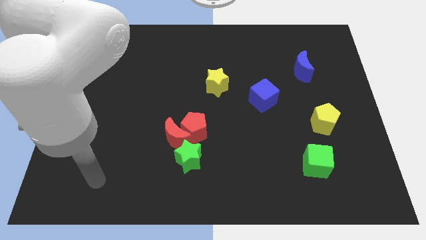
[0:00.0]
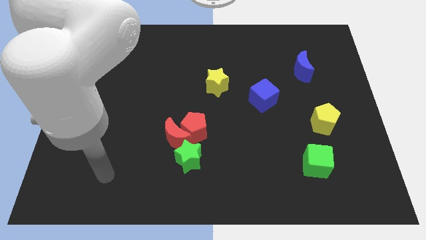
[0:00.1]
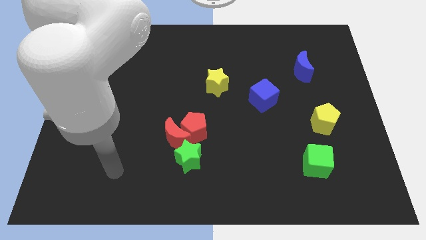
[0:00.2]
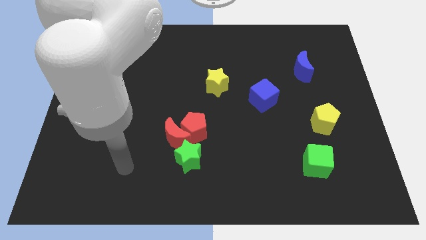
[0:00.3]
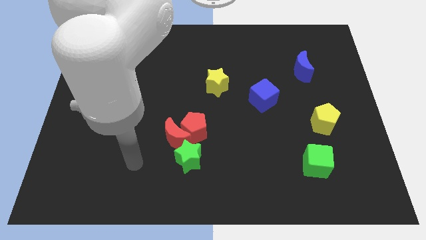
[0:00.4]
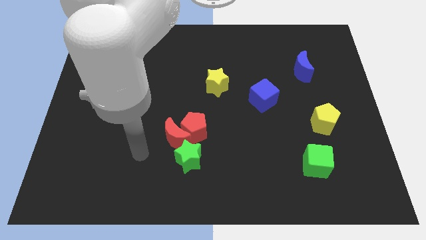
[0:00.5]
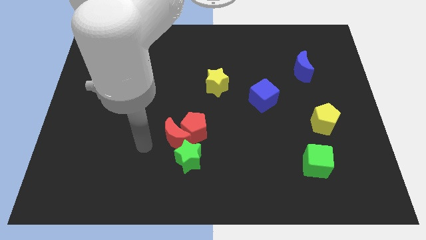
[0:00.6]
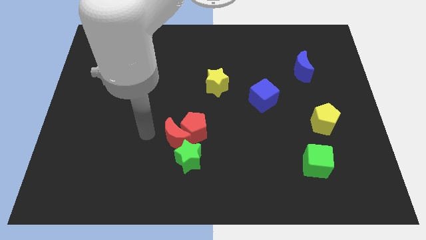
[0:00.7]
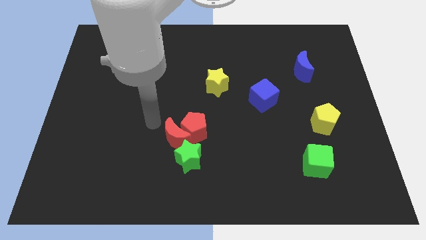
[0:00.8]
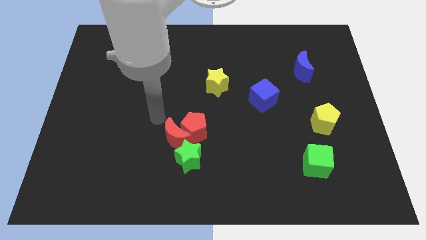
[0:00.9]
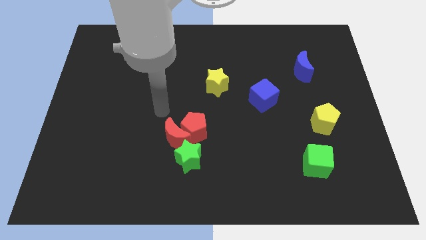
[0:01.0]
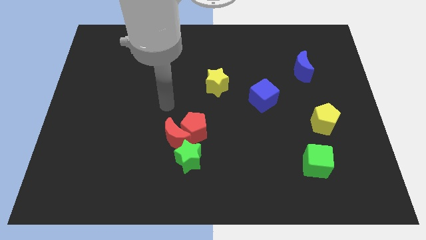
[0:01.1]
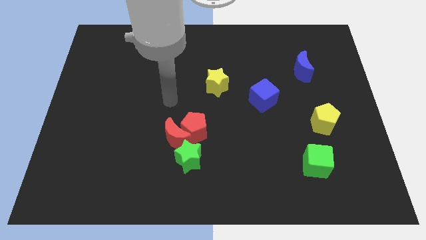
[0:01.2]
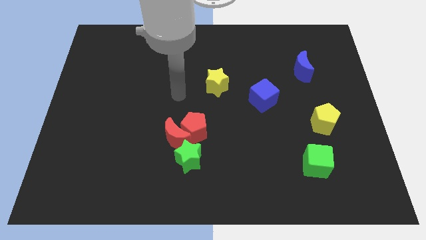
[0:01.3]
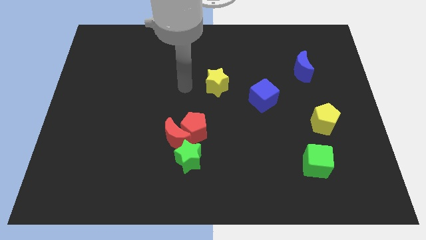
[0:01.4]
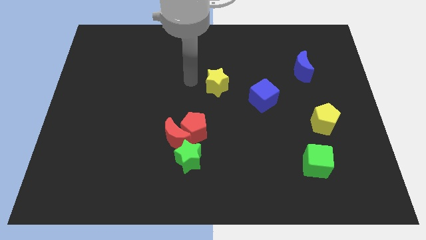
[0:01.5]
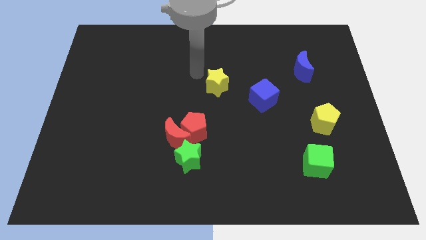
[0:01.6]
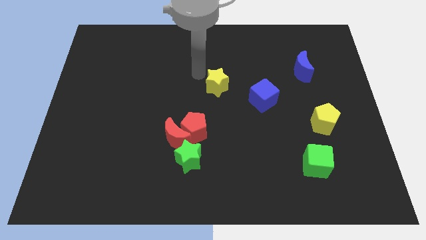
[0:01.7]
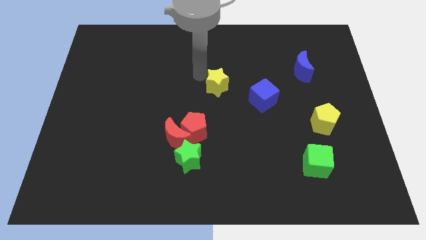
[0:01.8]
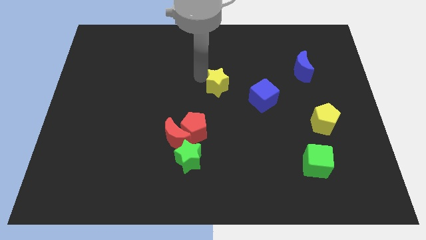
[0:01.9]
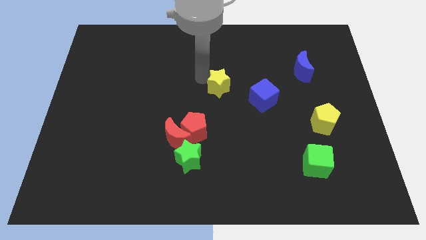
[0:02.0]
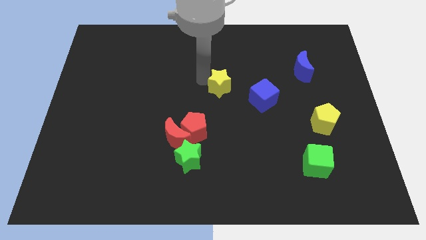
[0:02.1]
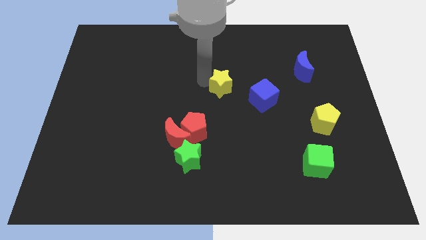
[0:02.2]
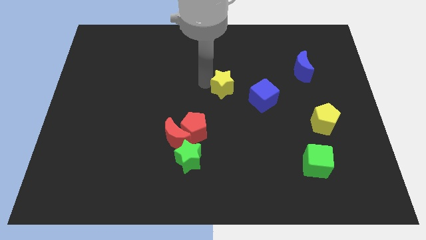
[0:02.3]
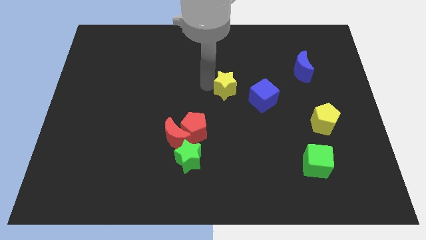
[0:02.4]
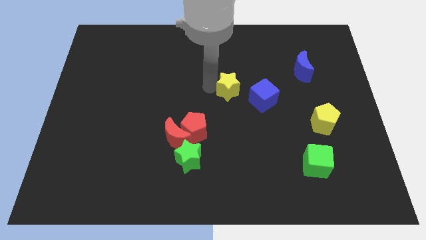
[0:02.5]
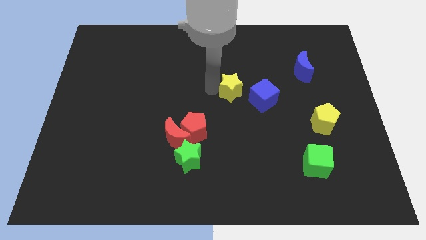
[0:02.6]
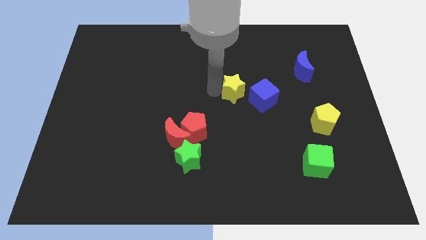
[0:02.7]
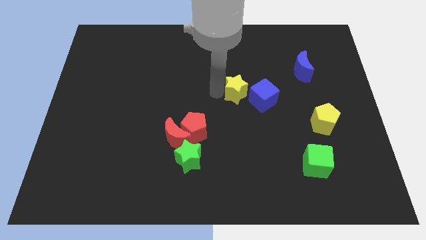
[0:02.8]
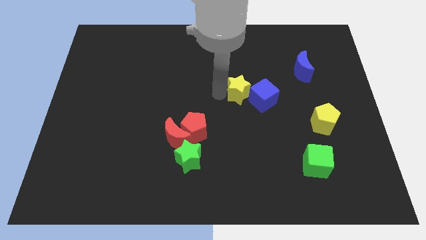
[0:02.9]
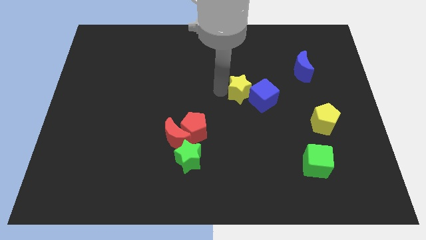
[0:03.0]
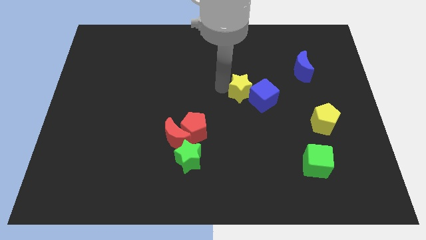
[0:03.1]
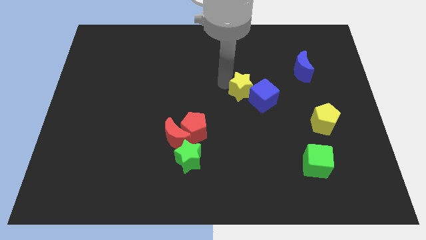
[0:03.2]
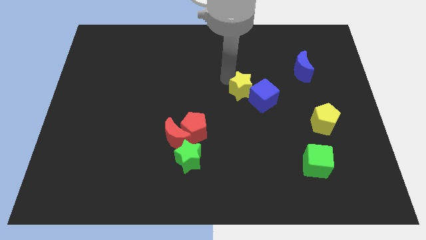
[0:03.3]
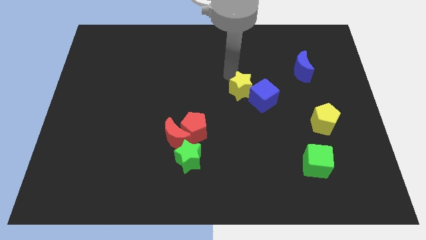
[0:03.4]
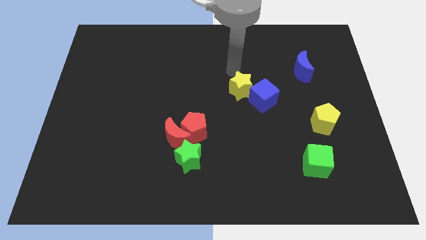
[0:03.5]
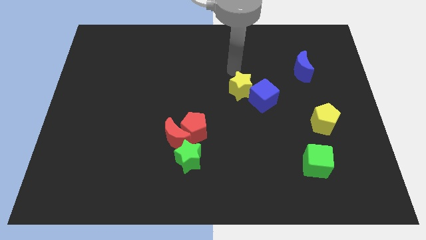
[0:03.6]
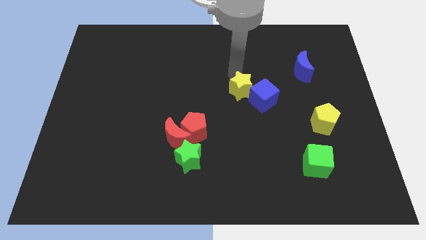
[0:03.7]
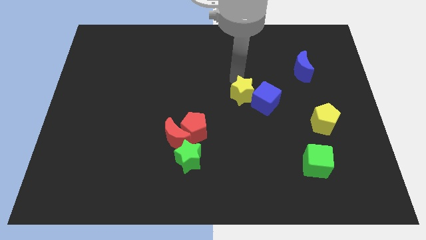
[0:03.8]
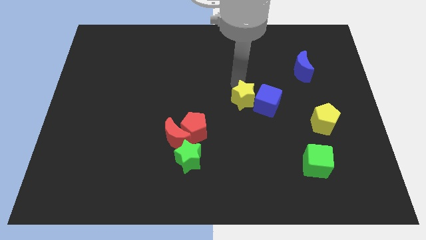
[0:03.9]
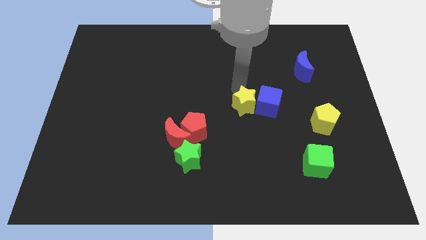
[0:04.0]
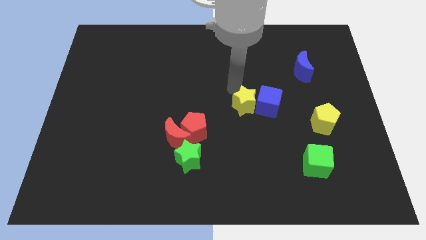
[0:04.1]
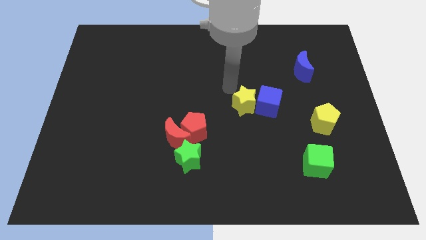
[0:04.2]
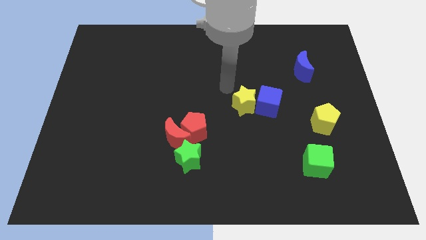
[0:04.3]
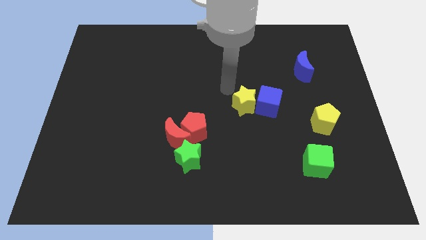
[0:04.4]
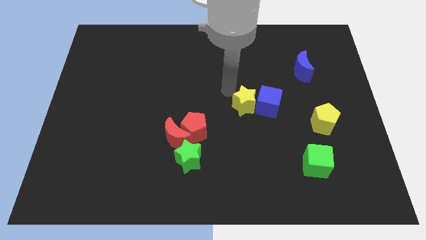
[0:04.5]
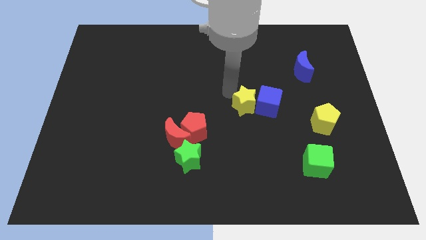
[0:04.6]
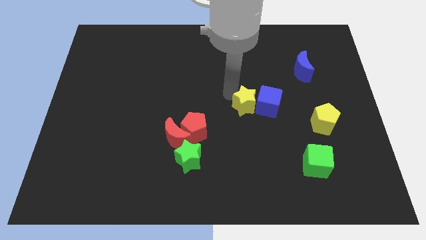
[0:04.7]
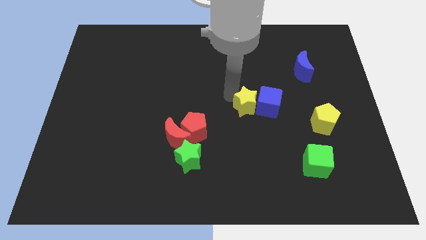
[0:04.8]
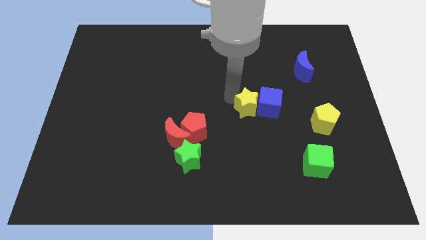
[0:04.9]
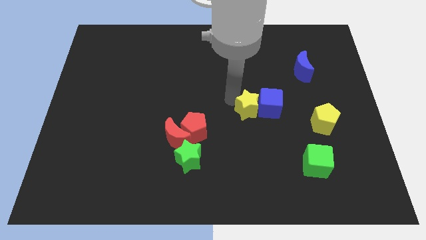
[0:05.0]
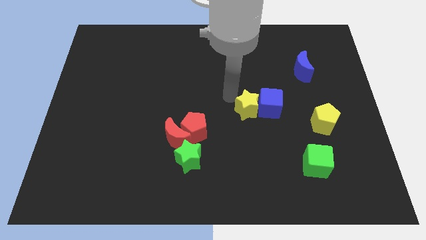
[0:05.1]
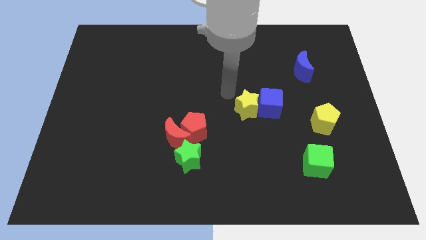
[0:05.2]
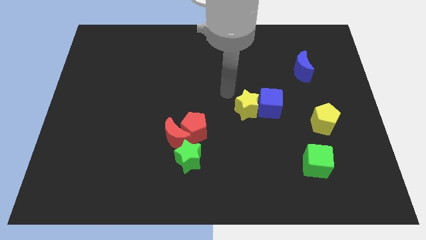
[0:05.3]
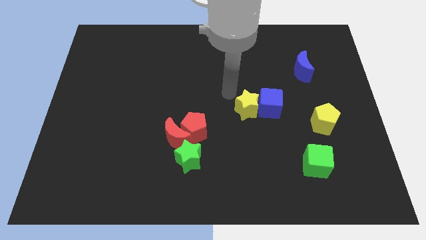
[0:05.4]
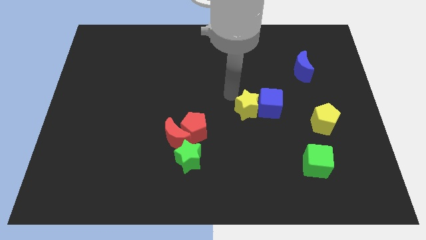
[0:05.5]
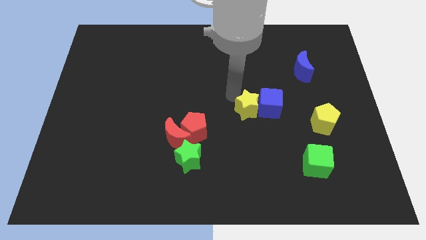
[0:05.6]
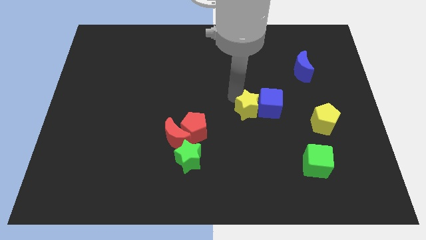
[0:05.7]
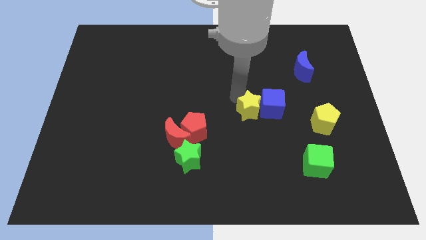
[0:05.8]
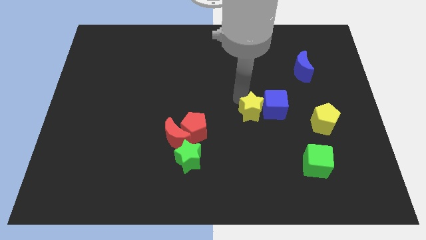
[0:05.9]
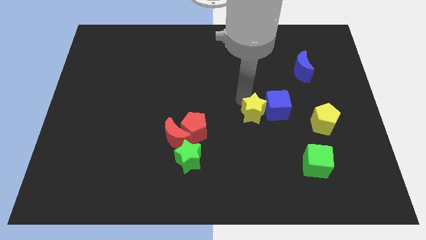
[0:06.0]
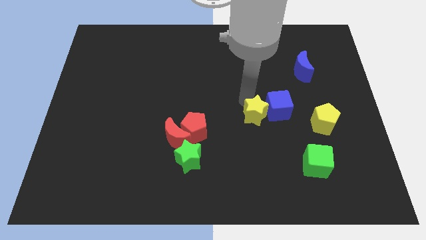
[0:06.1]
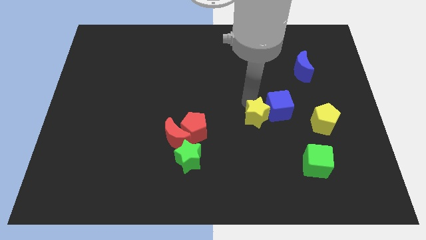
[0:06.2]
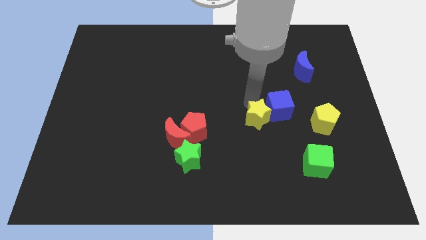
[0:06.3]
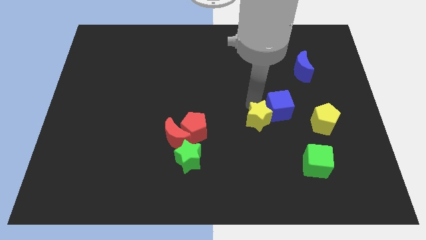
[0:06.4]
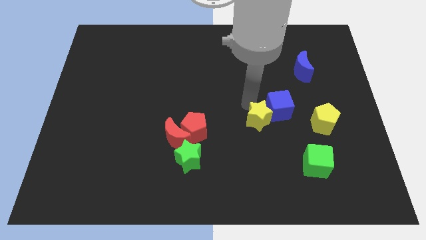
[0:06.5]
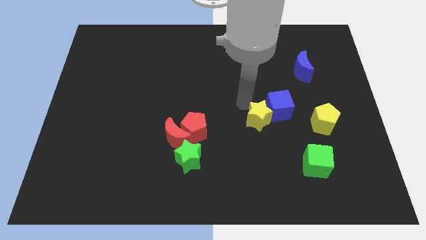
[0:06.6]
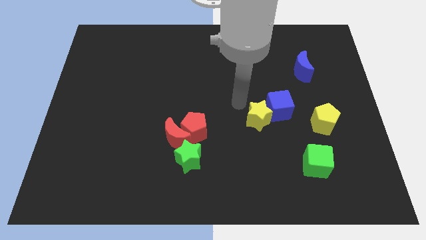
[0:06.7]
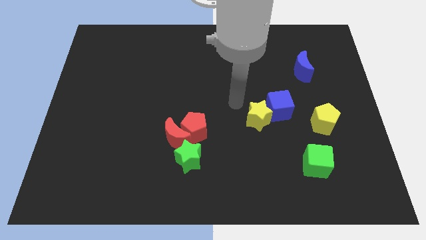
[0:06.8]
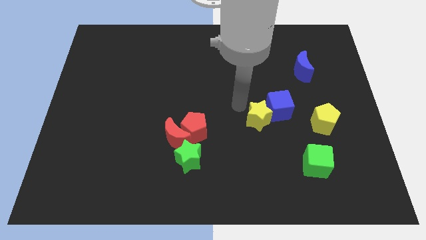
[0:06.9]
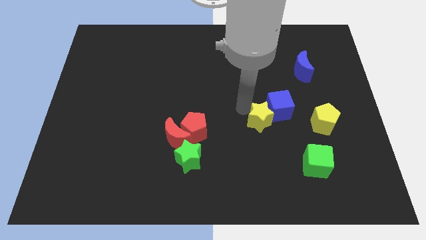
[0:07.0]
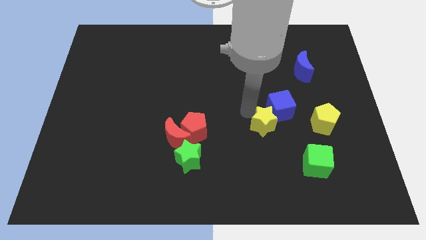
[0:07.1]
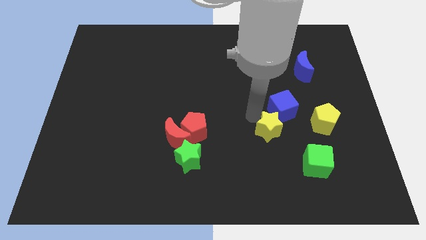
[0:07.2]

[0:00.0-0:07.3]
put the yellow star diagonally up and to the left of the green cube

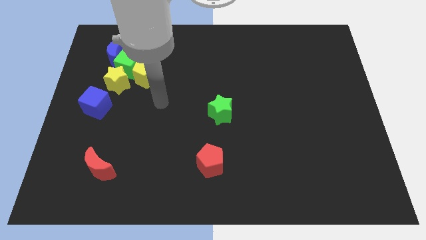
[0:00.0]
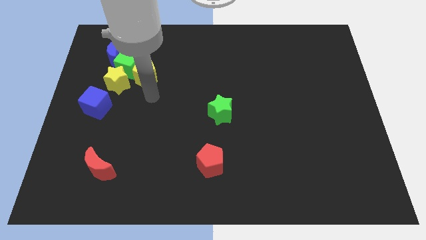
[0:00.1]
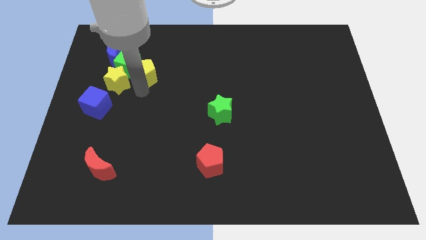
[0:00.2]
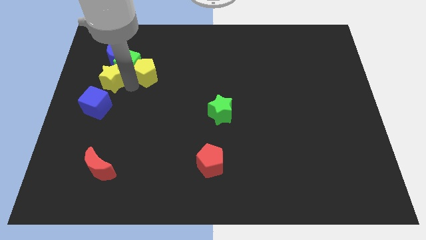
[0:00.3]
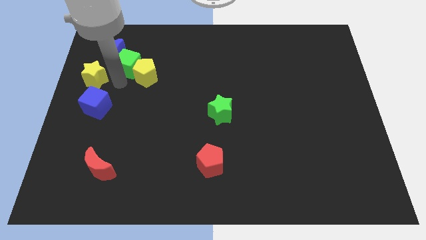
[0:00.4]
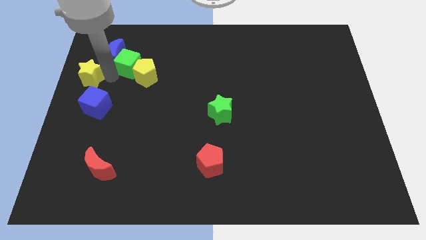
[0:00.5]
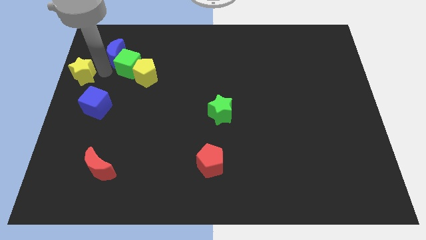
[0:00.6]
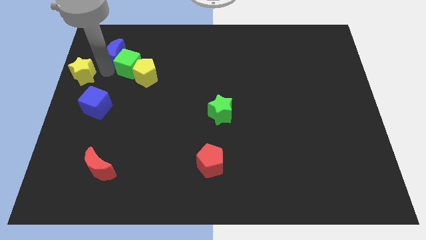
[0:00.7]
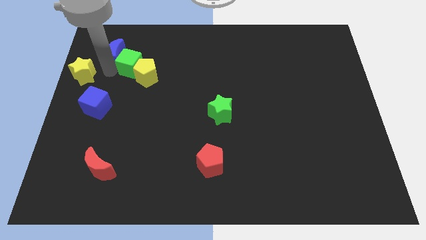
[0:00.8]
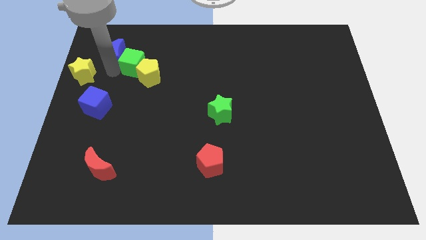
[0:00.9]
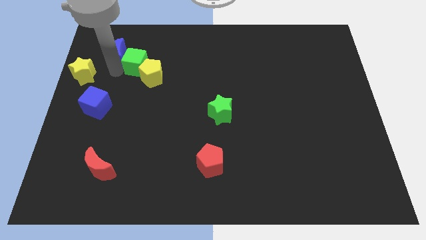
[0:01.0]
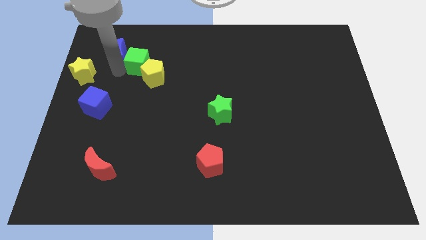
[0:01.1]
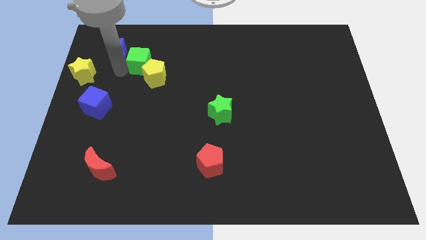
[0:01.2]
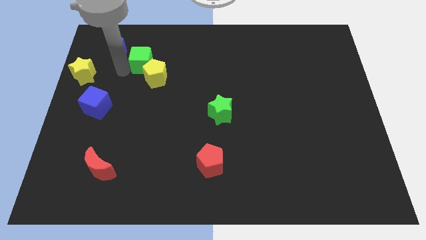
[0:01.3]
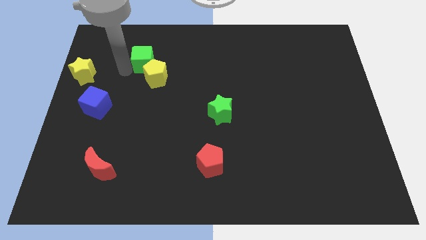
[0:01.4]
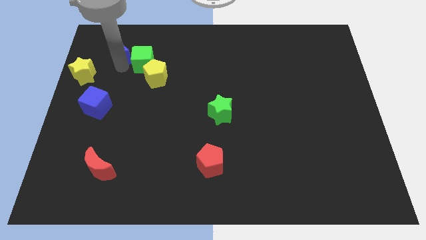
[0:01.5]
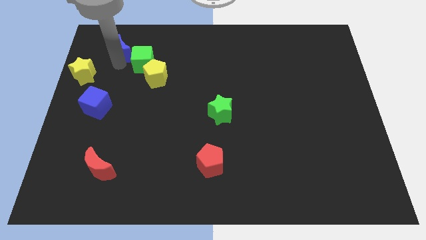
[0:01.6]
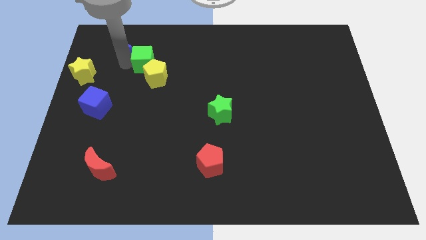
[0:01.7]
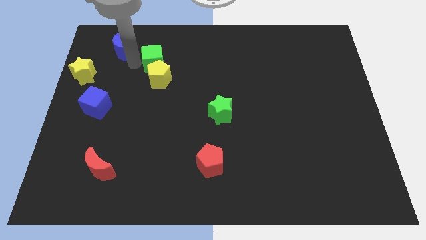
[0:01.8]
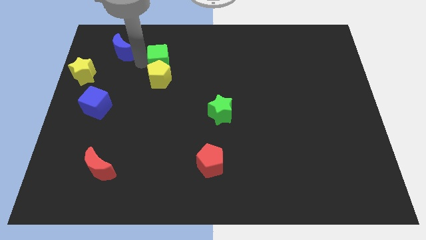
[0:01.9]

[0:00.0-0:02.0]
put the green cube diagonally up and to the right of the yellow pentagon
